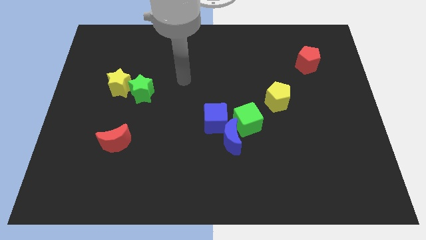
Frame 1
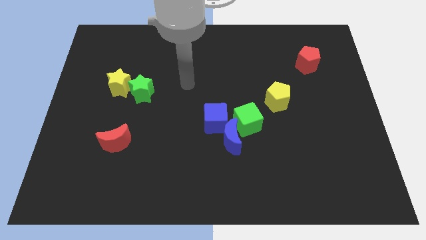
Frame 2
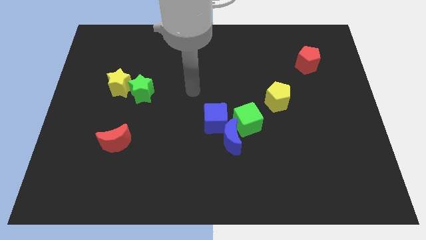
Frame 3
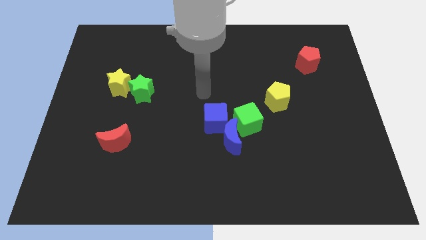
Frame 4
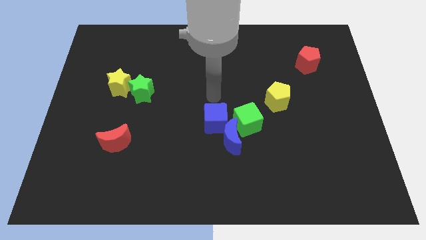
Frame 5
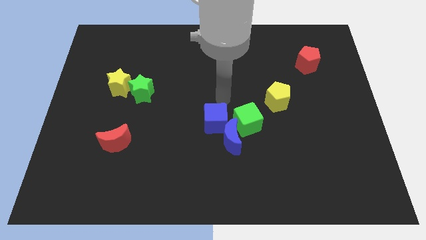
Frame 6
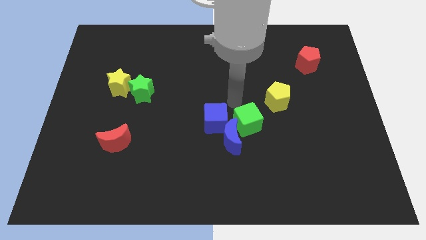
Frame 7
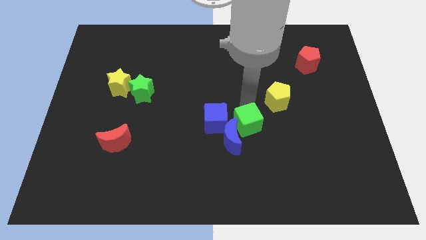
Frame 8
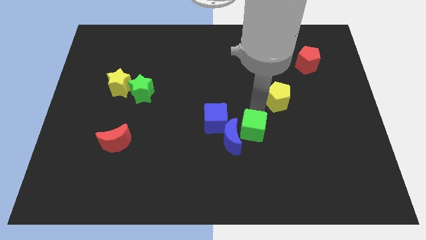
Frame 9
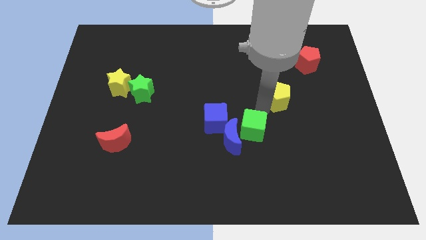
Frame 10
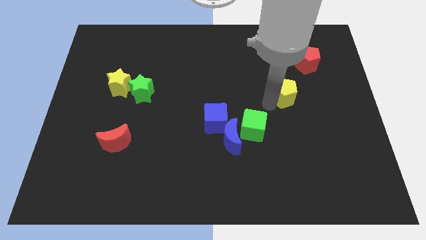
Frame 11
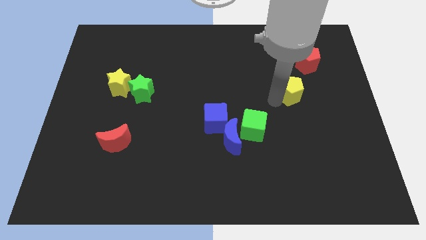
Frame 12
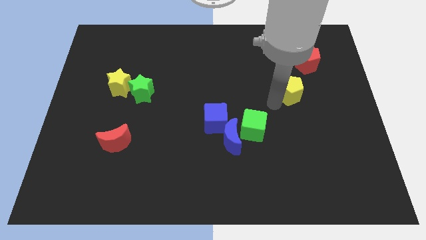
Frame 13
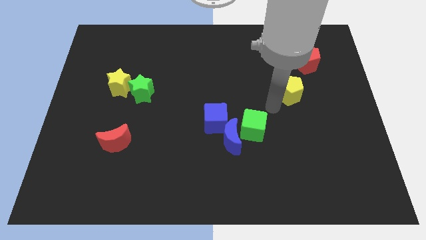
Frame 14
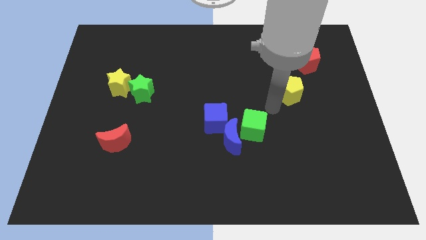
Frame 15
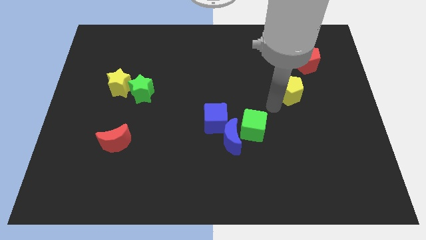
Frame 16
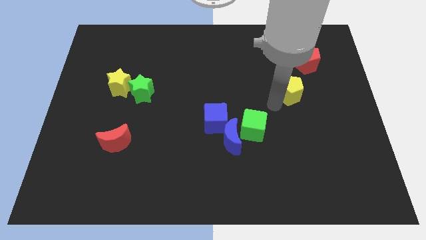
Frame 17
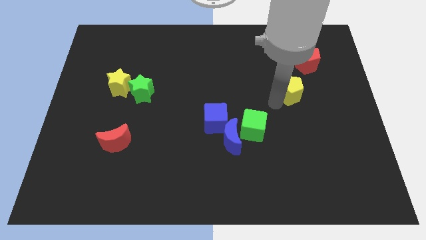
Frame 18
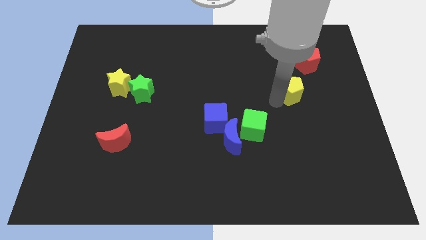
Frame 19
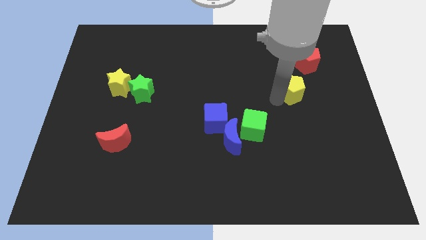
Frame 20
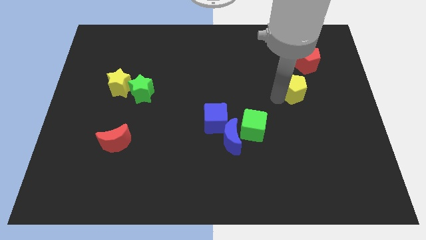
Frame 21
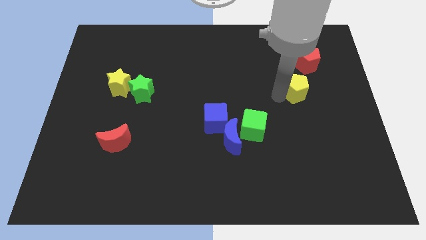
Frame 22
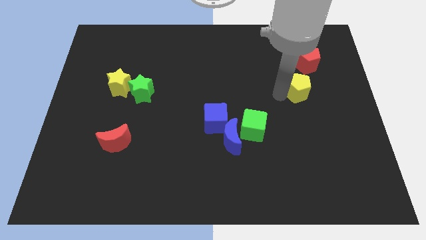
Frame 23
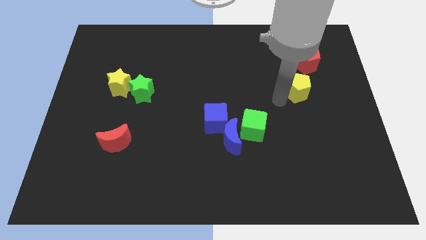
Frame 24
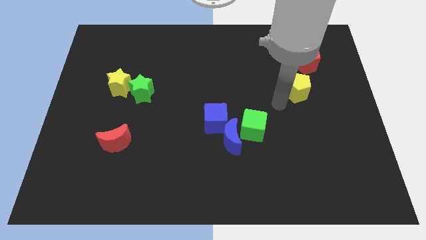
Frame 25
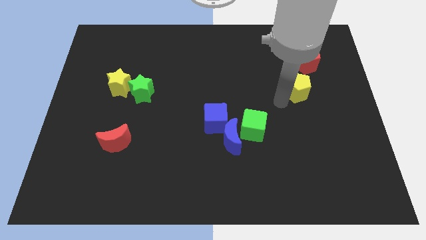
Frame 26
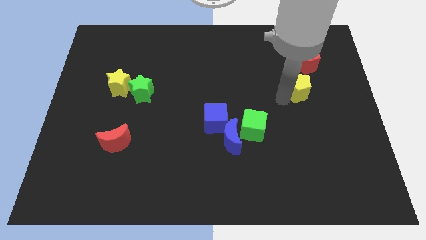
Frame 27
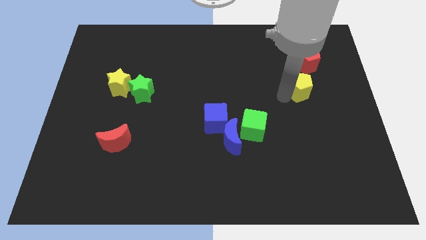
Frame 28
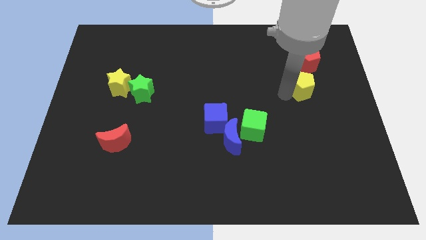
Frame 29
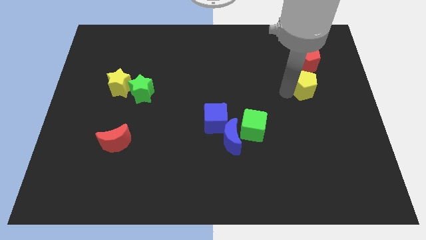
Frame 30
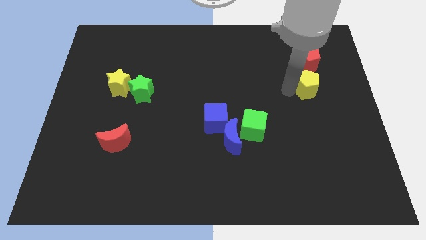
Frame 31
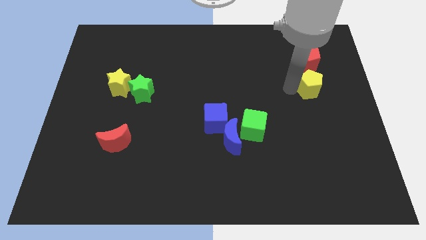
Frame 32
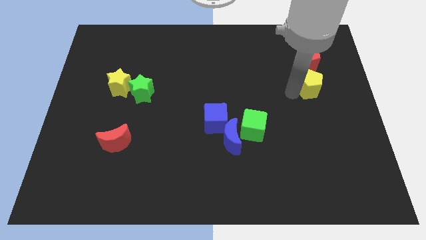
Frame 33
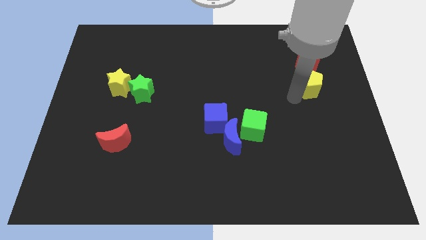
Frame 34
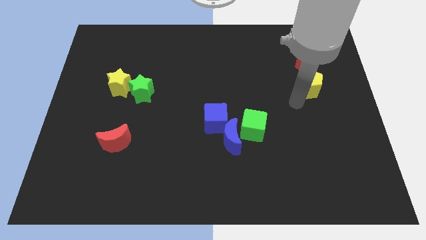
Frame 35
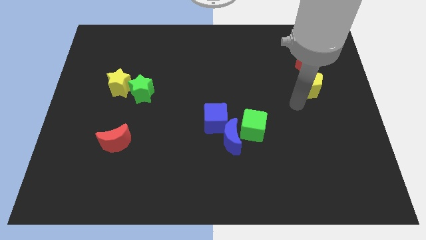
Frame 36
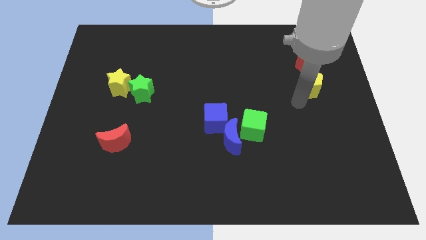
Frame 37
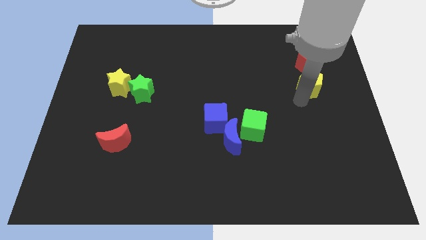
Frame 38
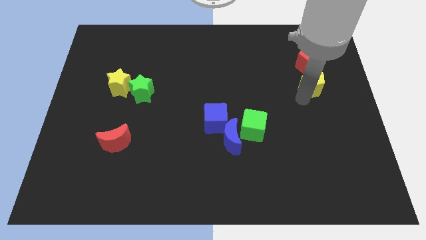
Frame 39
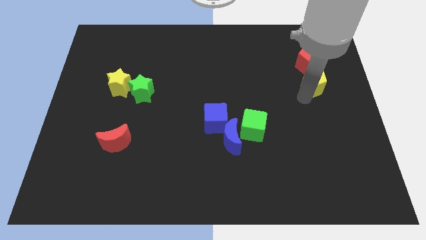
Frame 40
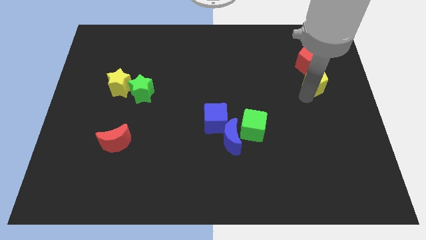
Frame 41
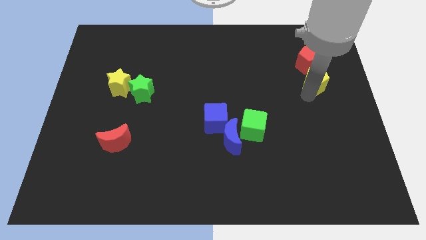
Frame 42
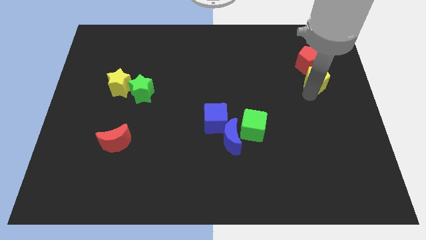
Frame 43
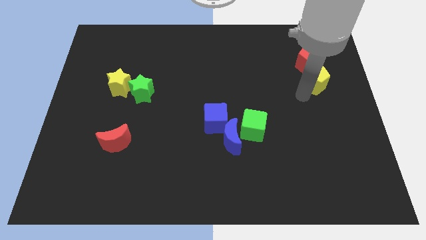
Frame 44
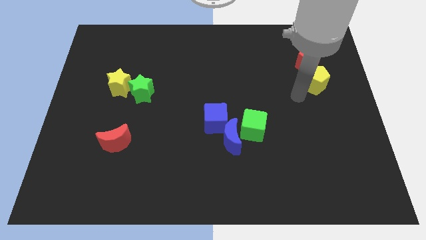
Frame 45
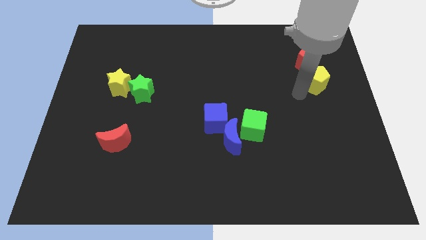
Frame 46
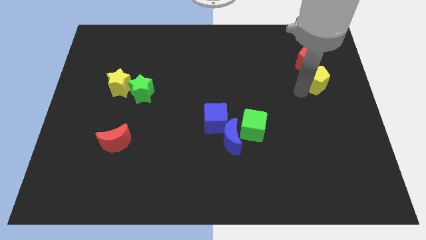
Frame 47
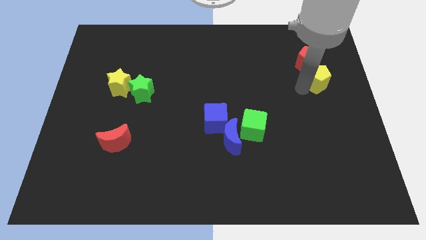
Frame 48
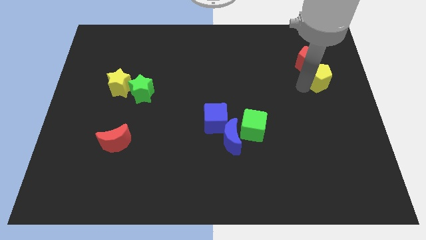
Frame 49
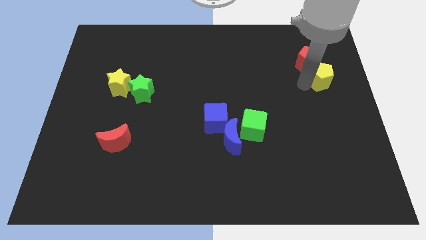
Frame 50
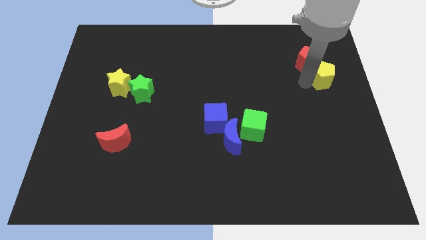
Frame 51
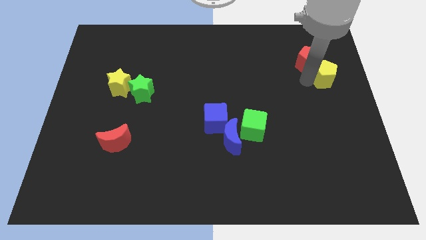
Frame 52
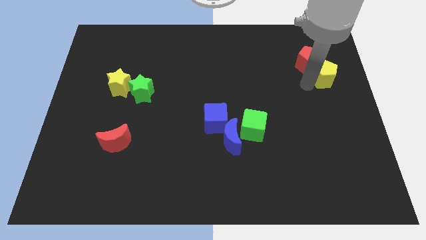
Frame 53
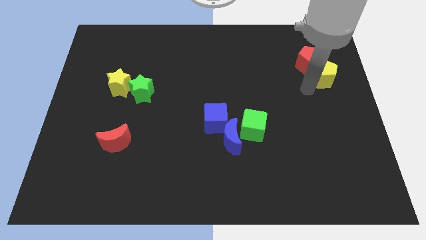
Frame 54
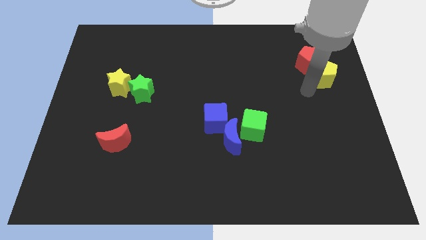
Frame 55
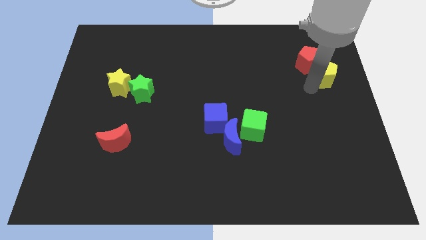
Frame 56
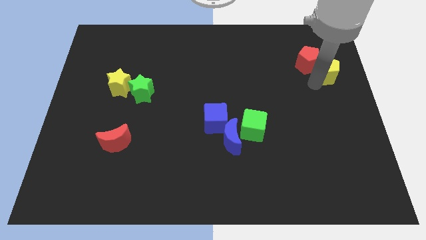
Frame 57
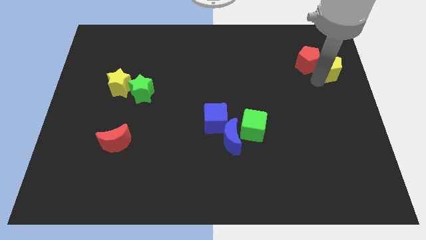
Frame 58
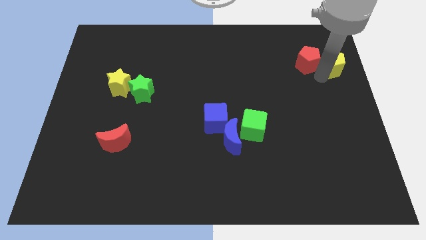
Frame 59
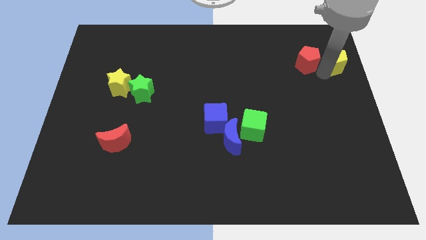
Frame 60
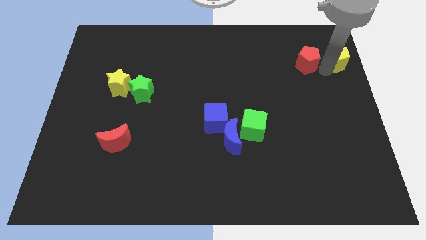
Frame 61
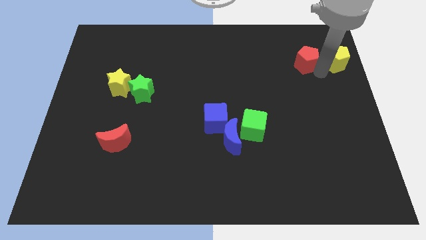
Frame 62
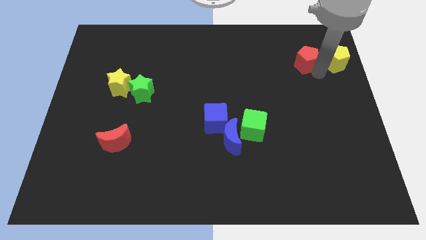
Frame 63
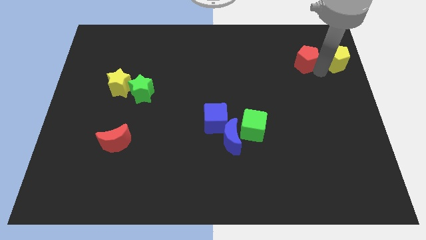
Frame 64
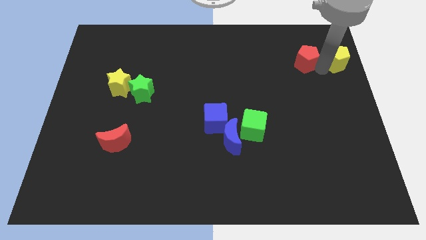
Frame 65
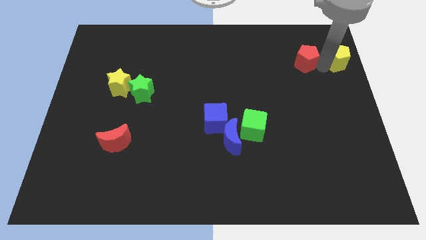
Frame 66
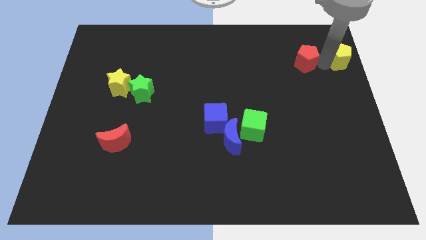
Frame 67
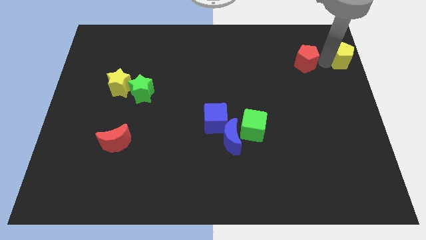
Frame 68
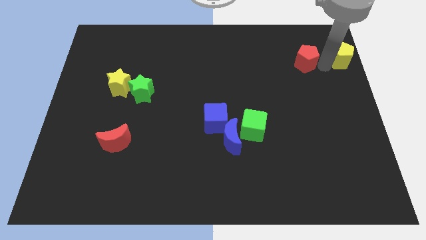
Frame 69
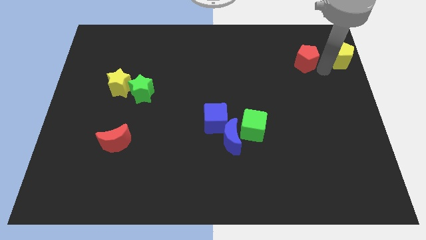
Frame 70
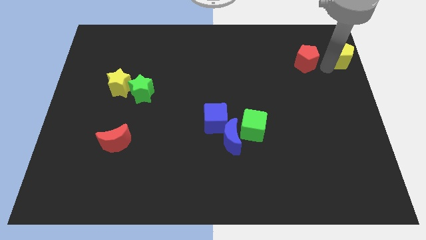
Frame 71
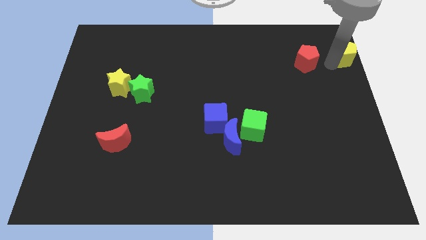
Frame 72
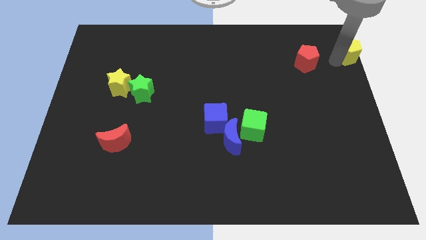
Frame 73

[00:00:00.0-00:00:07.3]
slide the yellow pentagon to the top right corner
